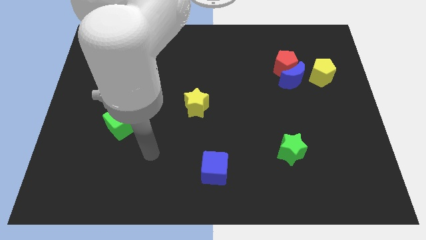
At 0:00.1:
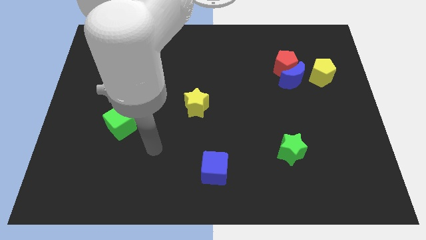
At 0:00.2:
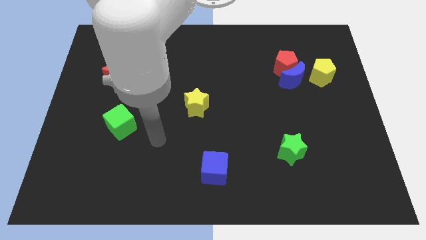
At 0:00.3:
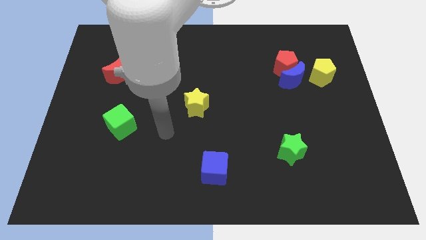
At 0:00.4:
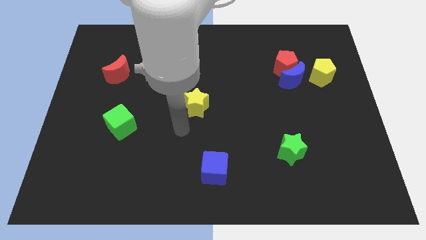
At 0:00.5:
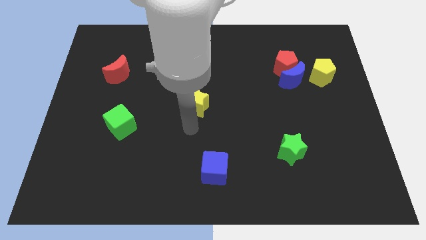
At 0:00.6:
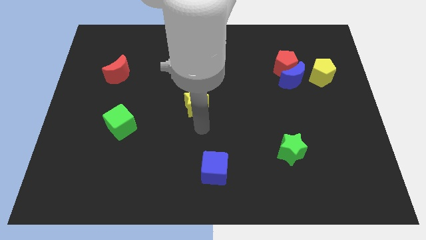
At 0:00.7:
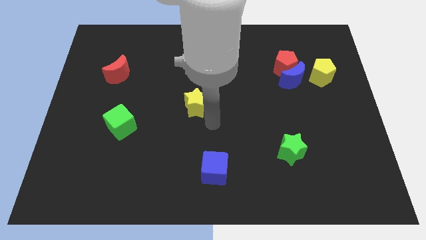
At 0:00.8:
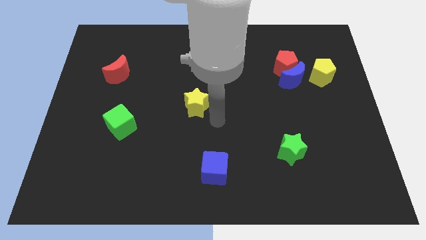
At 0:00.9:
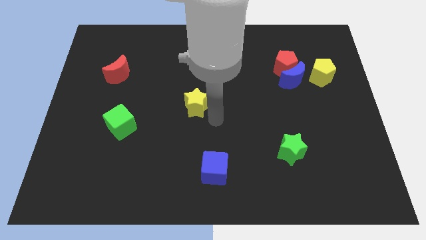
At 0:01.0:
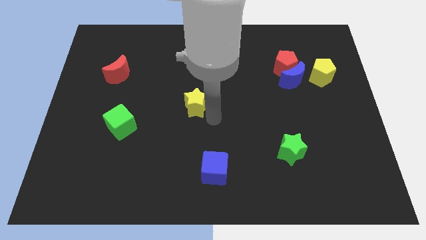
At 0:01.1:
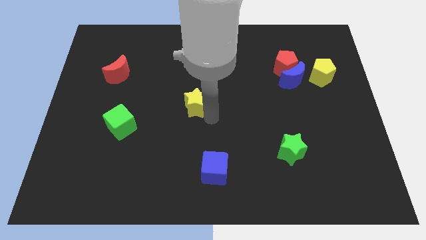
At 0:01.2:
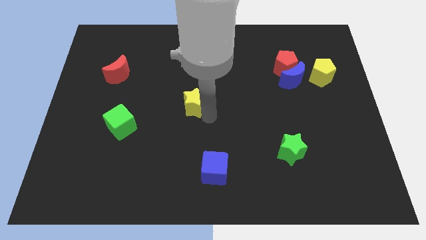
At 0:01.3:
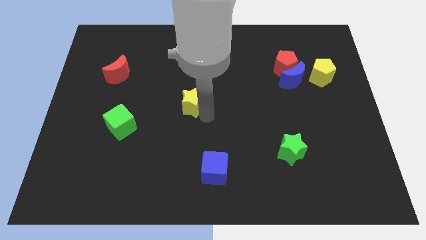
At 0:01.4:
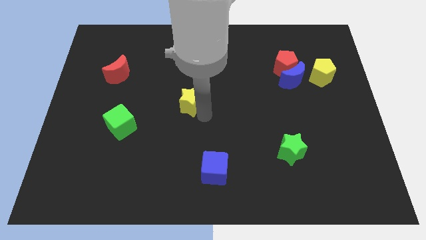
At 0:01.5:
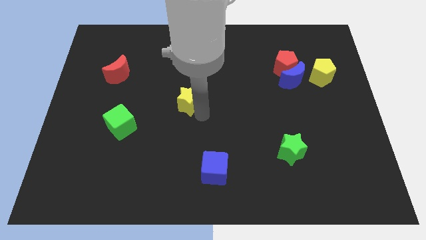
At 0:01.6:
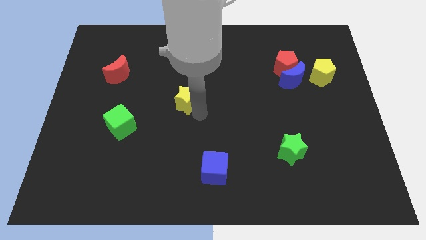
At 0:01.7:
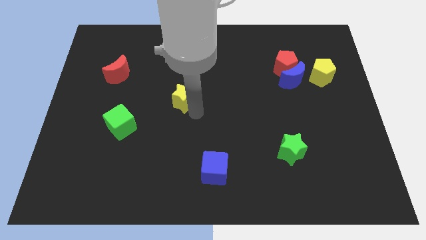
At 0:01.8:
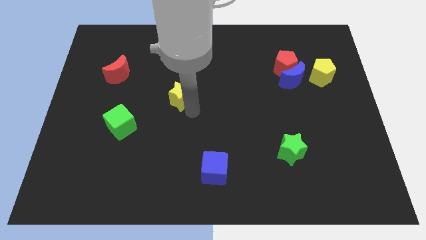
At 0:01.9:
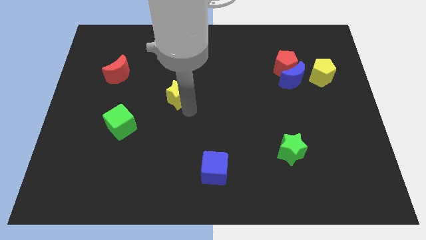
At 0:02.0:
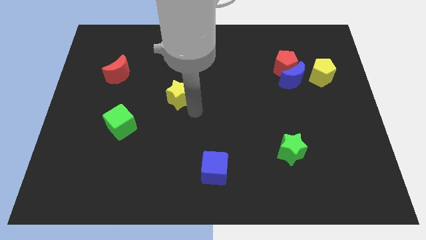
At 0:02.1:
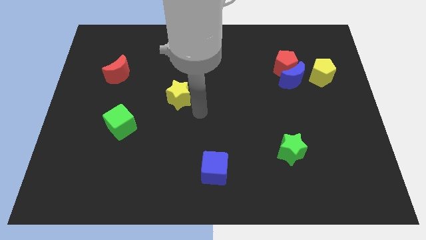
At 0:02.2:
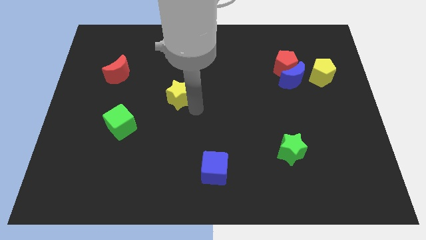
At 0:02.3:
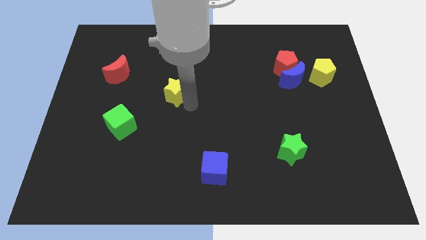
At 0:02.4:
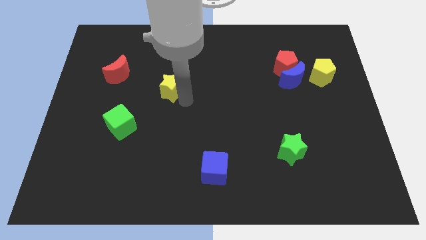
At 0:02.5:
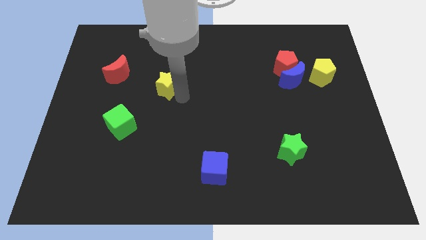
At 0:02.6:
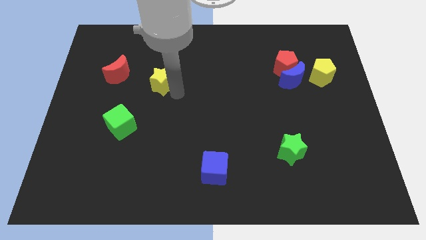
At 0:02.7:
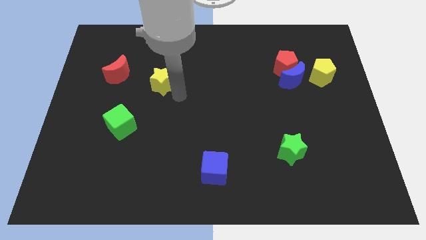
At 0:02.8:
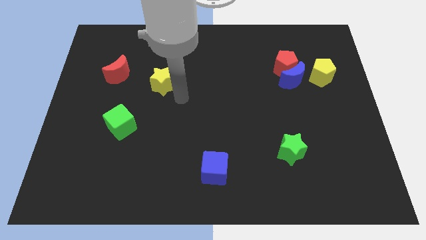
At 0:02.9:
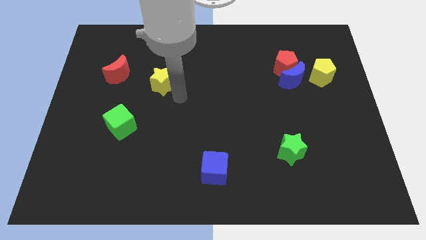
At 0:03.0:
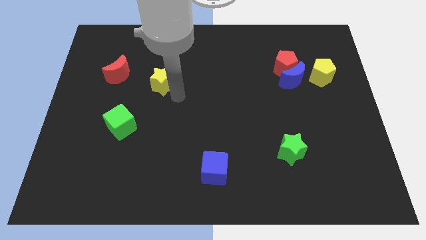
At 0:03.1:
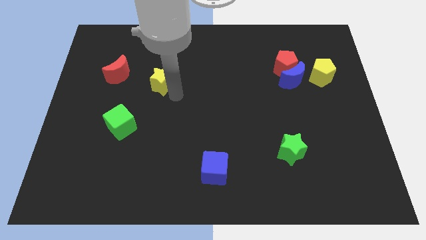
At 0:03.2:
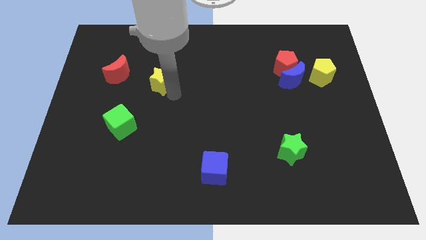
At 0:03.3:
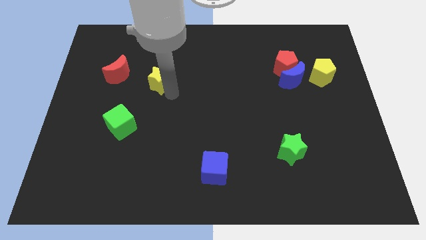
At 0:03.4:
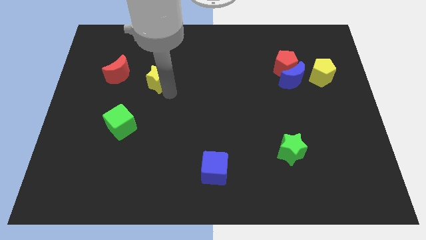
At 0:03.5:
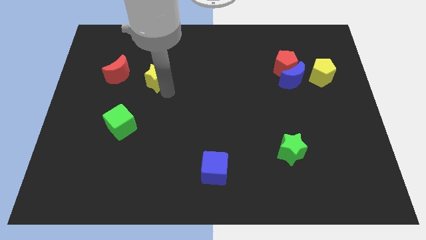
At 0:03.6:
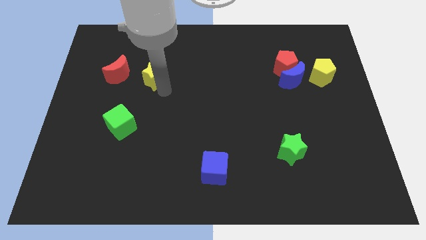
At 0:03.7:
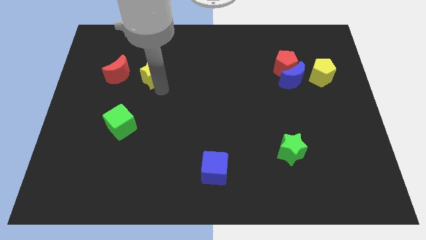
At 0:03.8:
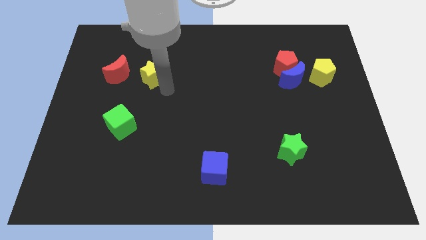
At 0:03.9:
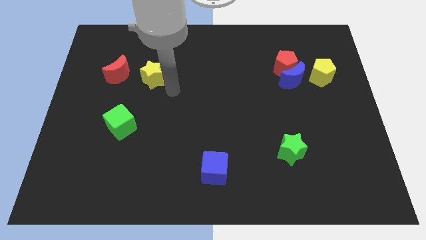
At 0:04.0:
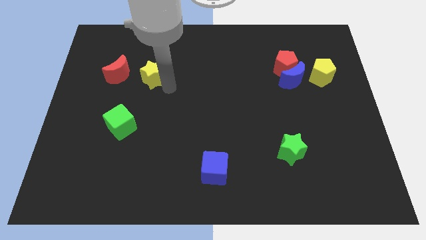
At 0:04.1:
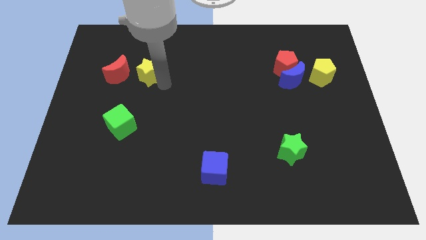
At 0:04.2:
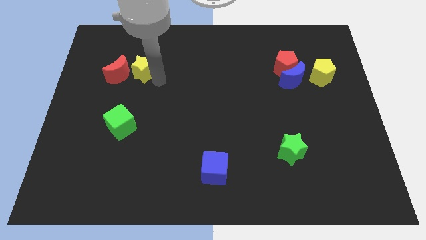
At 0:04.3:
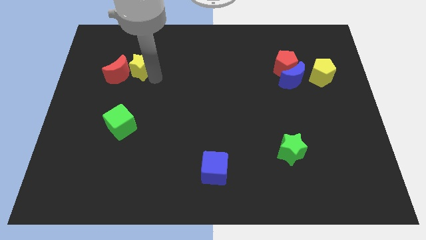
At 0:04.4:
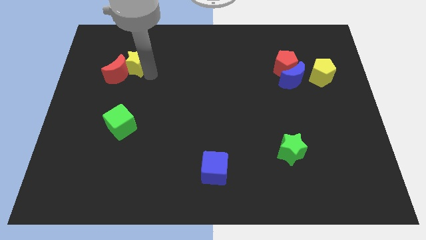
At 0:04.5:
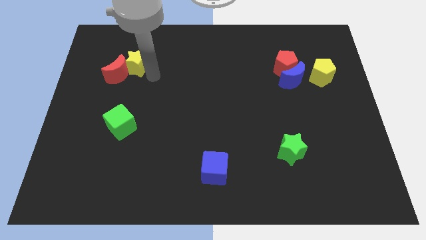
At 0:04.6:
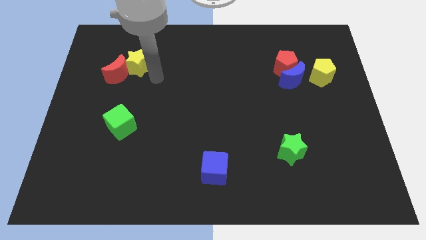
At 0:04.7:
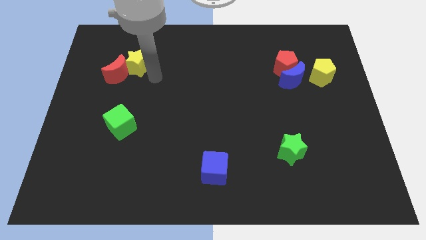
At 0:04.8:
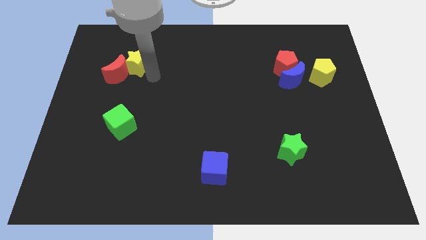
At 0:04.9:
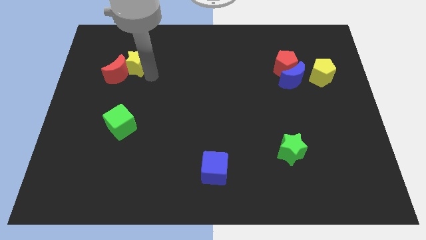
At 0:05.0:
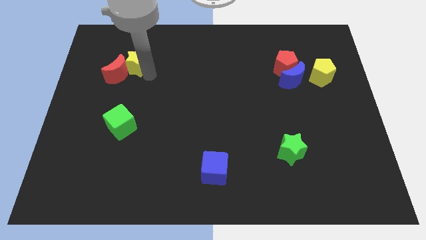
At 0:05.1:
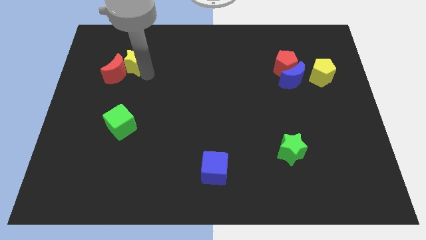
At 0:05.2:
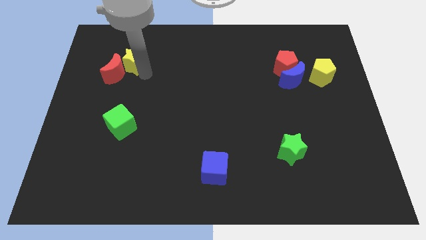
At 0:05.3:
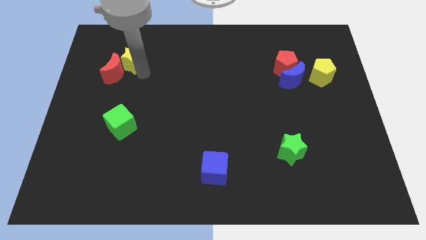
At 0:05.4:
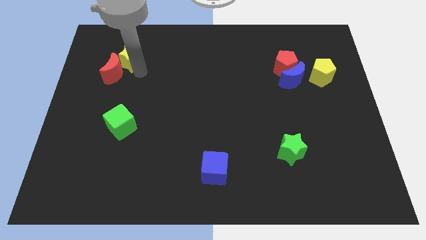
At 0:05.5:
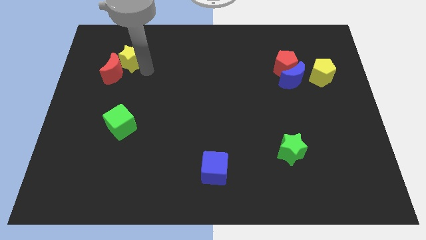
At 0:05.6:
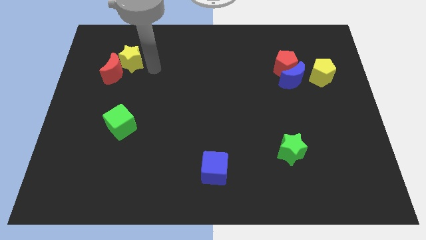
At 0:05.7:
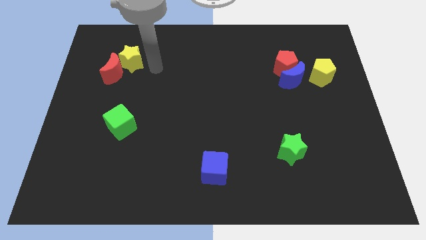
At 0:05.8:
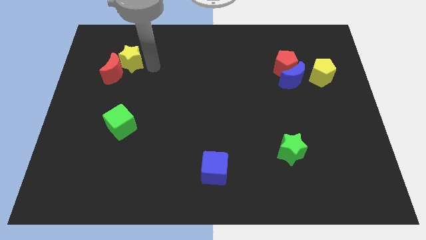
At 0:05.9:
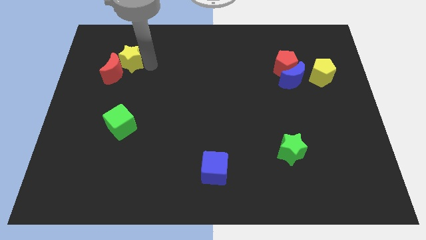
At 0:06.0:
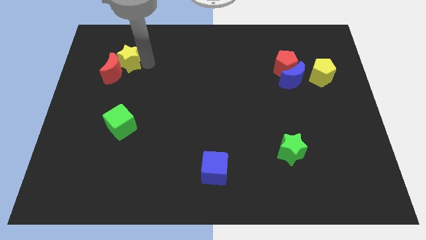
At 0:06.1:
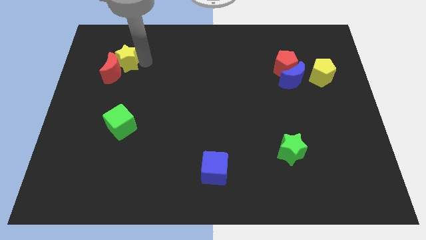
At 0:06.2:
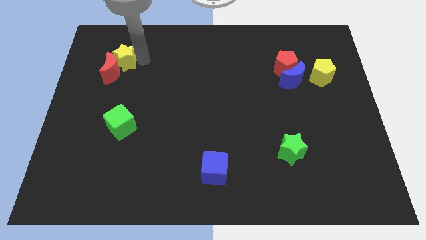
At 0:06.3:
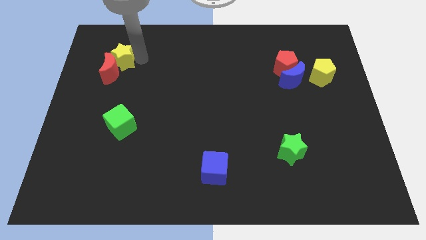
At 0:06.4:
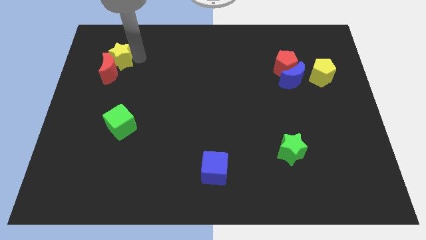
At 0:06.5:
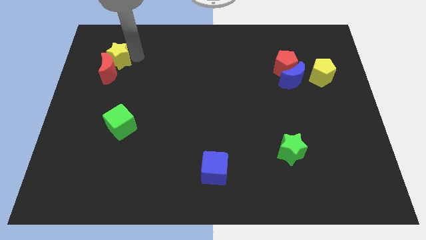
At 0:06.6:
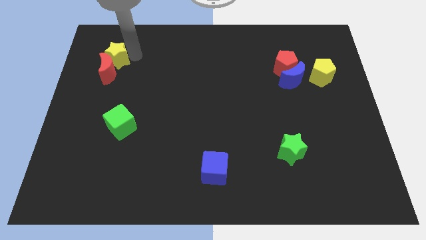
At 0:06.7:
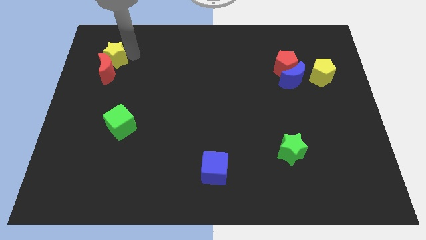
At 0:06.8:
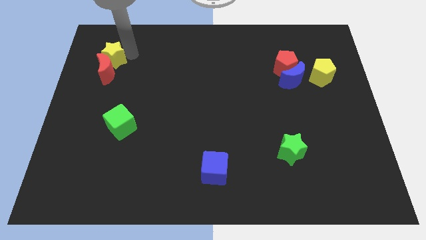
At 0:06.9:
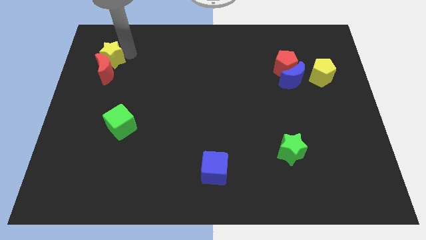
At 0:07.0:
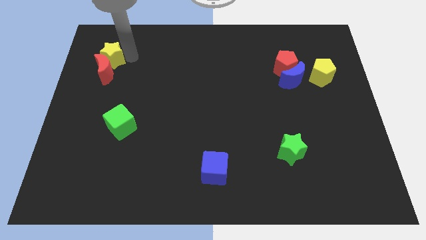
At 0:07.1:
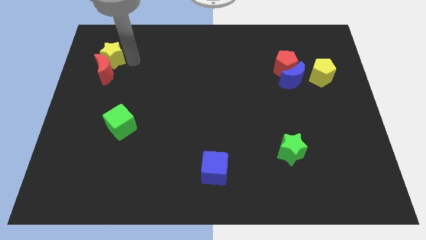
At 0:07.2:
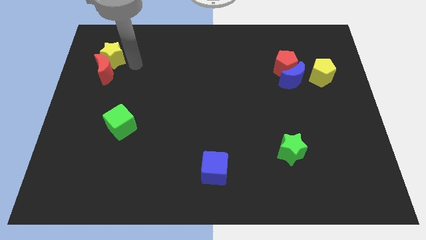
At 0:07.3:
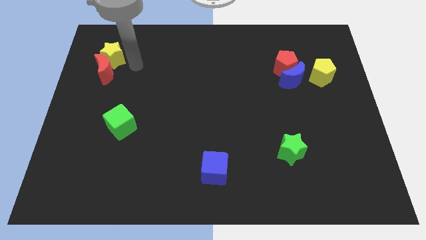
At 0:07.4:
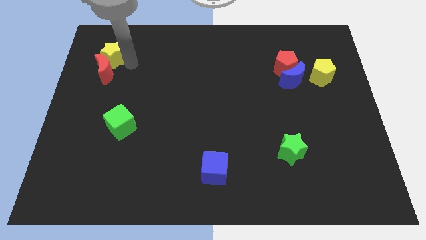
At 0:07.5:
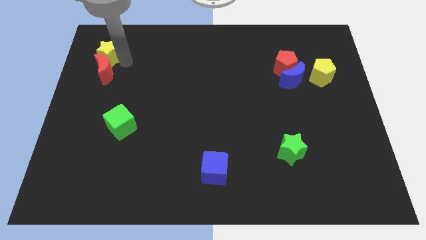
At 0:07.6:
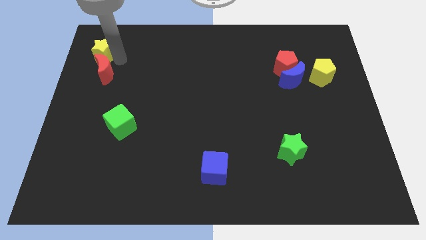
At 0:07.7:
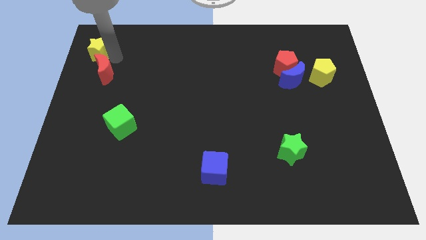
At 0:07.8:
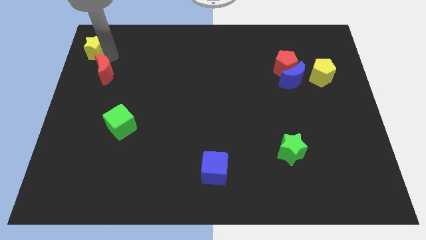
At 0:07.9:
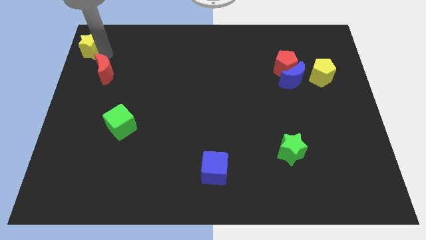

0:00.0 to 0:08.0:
move the yellow star to the upper left corner
